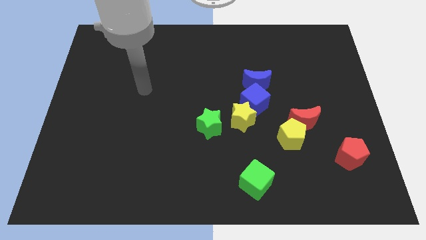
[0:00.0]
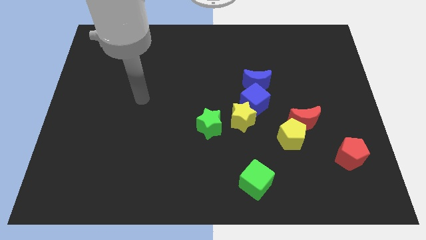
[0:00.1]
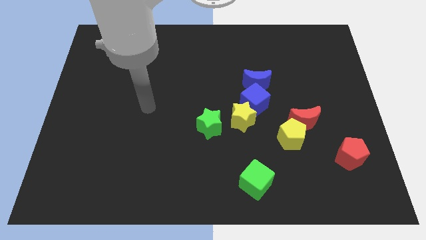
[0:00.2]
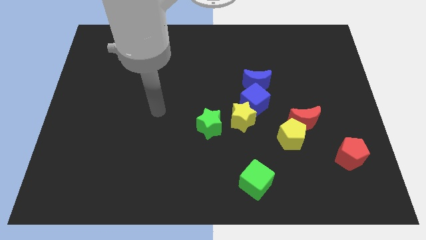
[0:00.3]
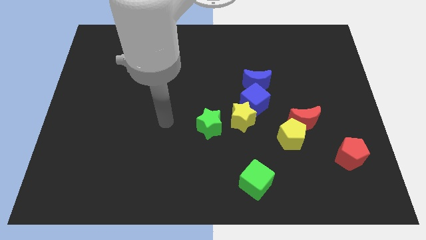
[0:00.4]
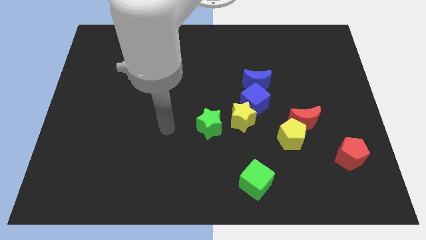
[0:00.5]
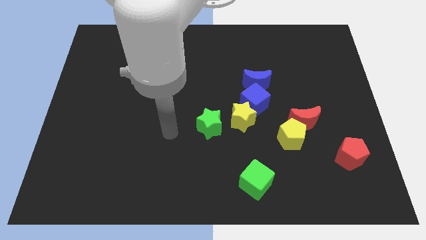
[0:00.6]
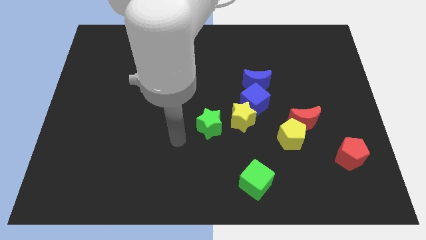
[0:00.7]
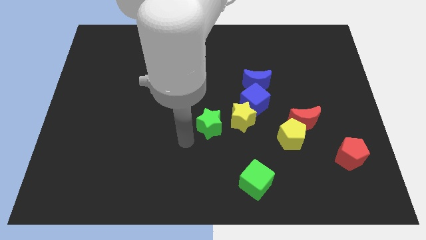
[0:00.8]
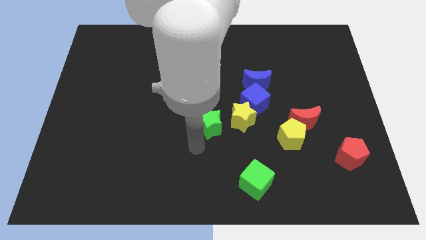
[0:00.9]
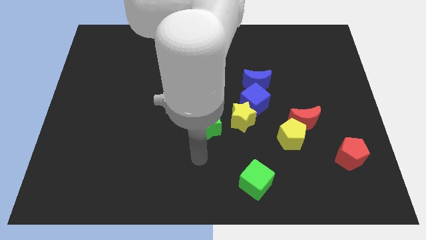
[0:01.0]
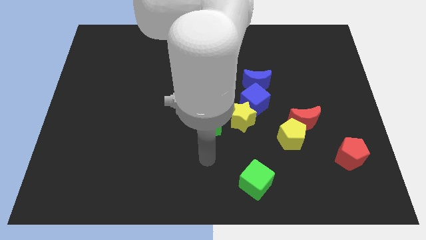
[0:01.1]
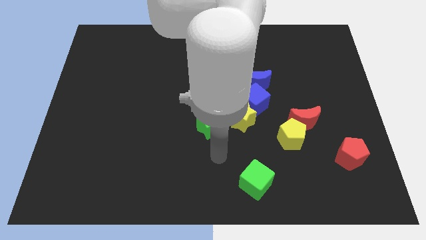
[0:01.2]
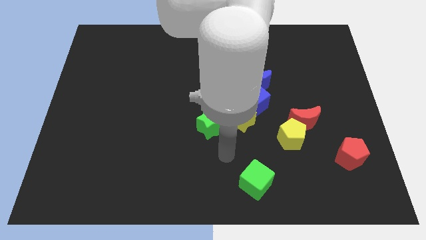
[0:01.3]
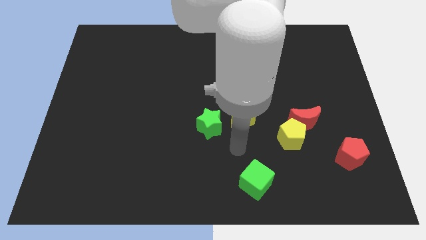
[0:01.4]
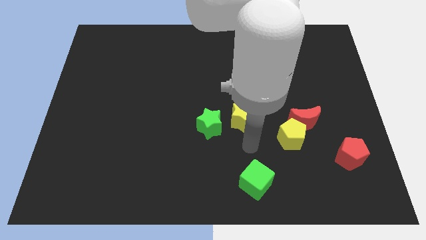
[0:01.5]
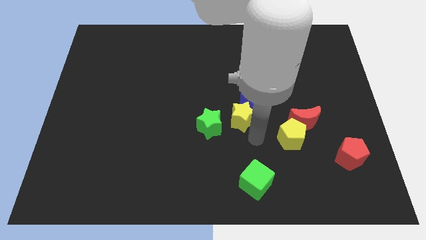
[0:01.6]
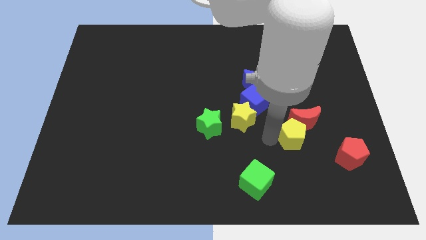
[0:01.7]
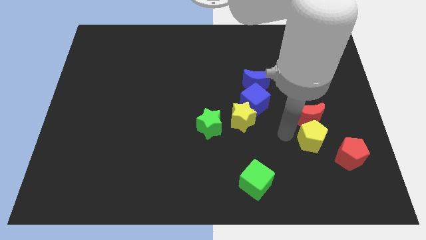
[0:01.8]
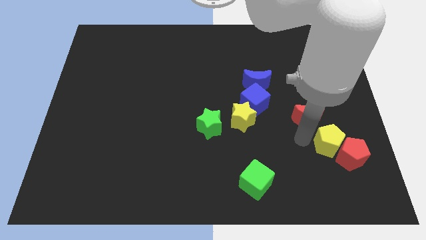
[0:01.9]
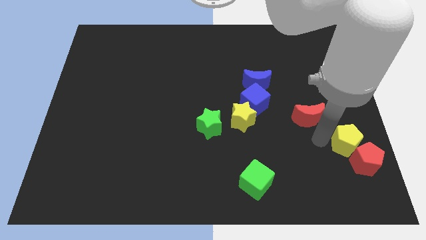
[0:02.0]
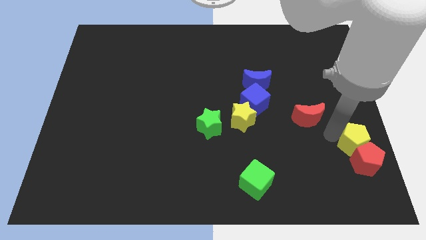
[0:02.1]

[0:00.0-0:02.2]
move the red moon away from the yellow pentagon

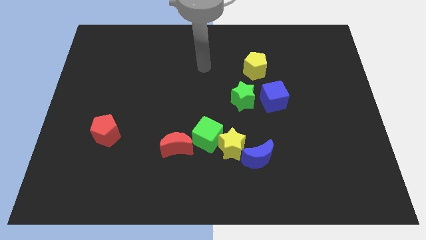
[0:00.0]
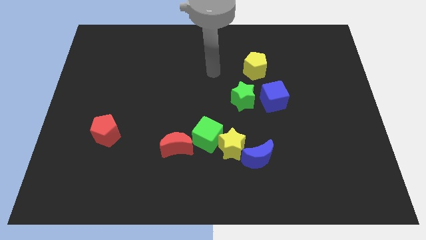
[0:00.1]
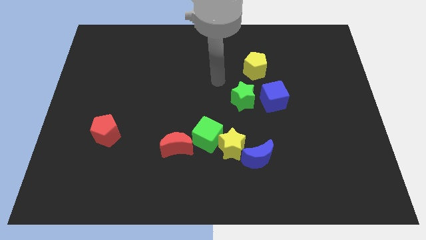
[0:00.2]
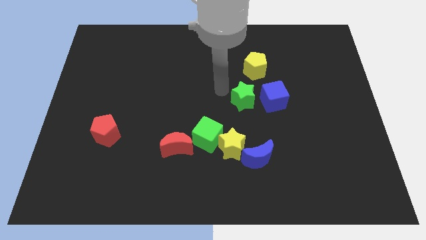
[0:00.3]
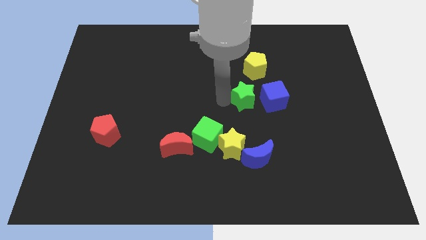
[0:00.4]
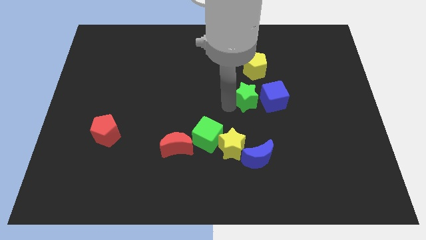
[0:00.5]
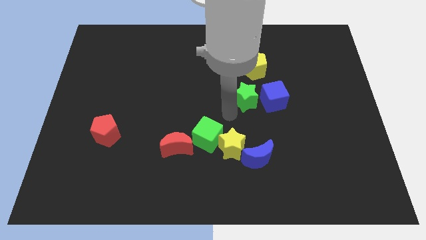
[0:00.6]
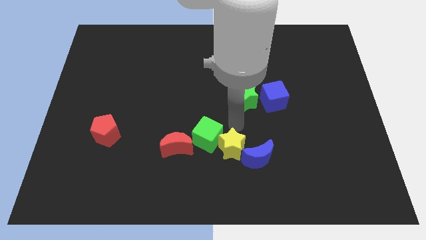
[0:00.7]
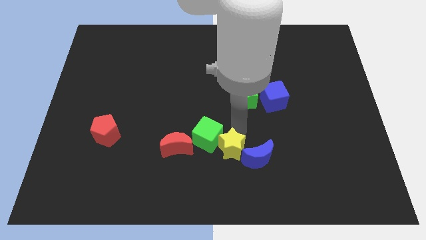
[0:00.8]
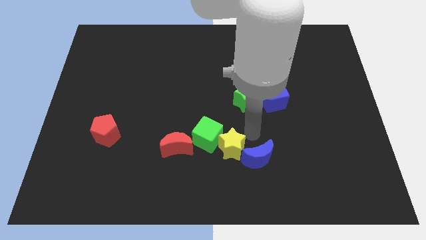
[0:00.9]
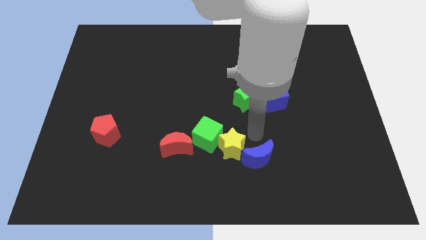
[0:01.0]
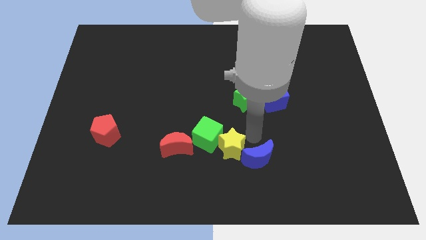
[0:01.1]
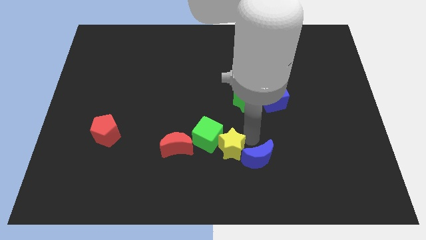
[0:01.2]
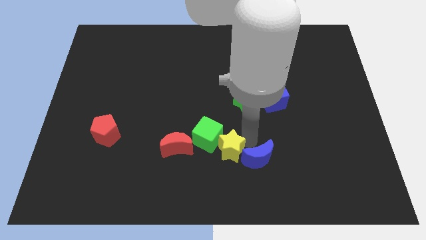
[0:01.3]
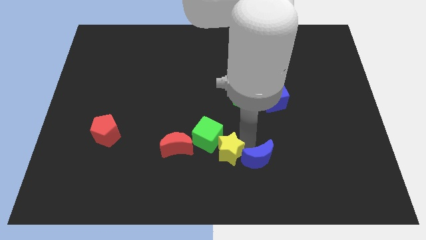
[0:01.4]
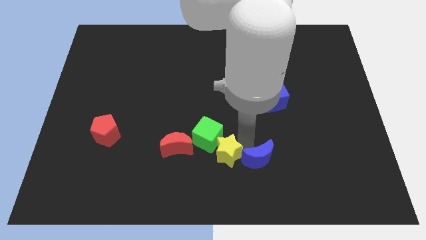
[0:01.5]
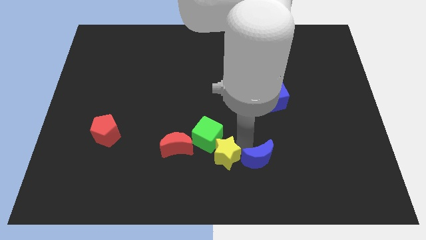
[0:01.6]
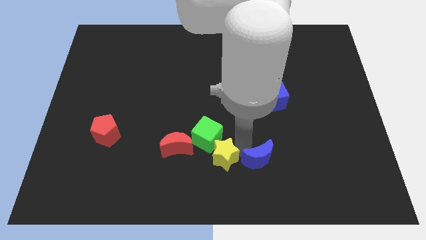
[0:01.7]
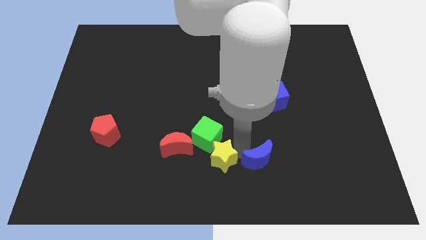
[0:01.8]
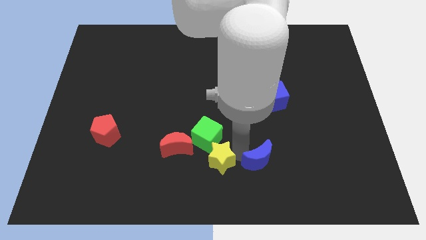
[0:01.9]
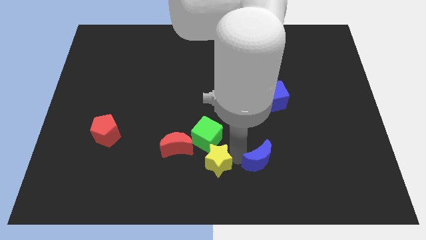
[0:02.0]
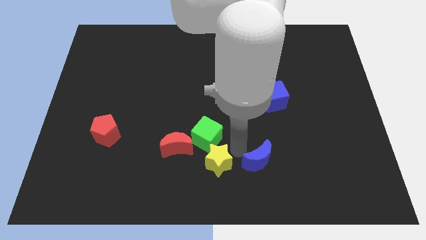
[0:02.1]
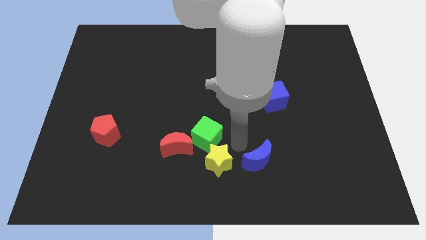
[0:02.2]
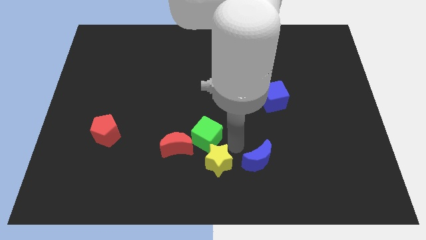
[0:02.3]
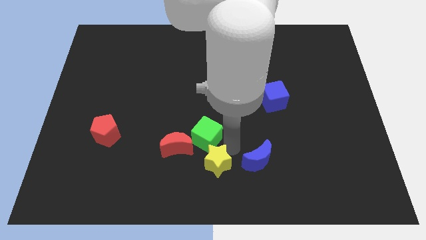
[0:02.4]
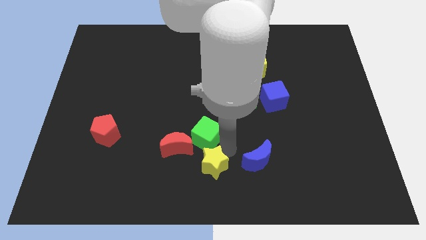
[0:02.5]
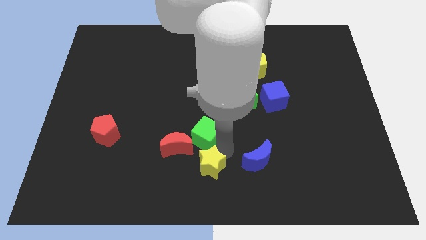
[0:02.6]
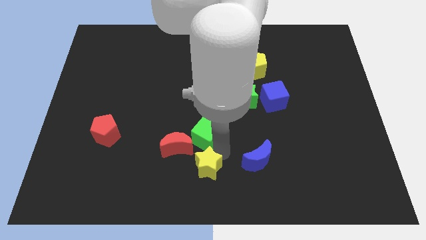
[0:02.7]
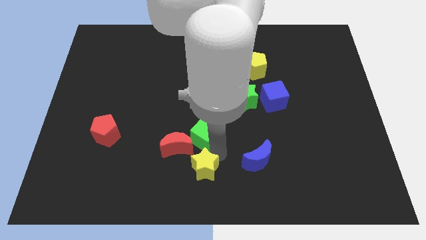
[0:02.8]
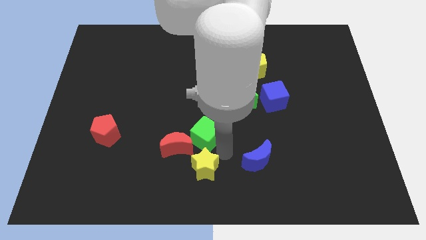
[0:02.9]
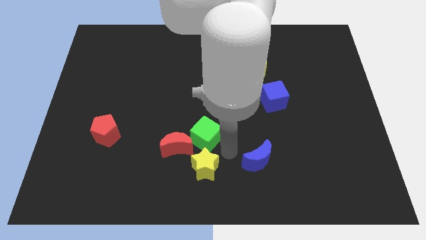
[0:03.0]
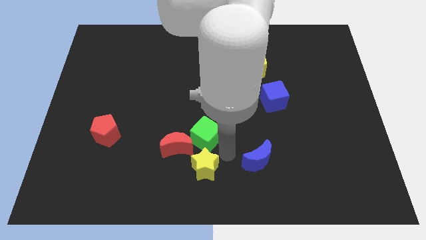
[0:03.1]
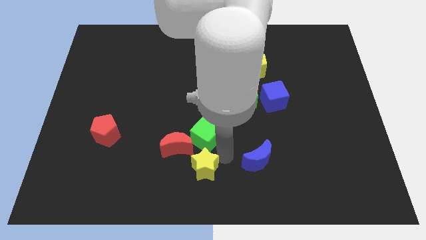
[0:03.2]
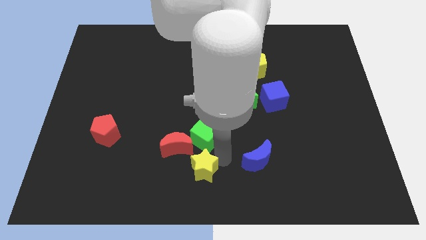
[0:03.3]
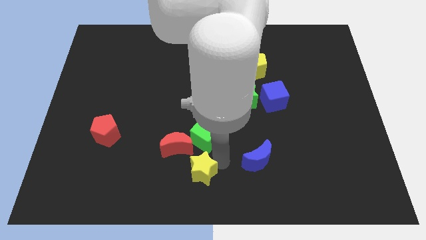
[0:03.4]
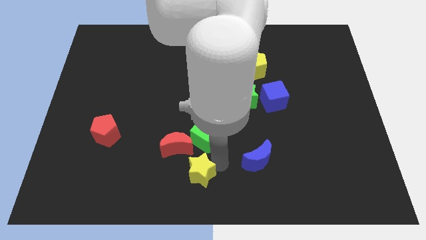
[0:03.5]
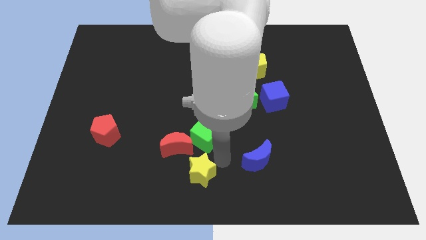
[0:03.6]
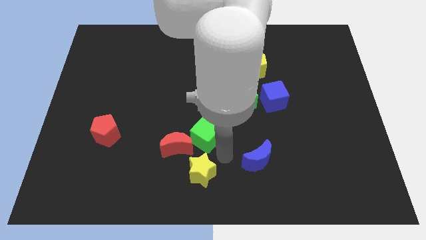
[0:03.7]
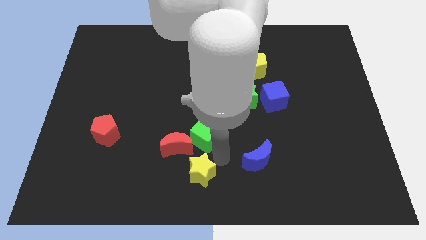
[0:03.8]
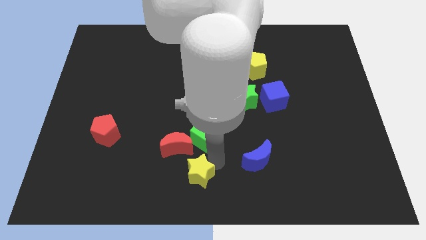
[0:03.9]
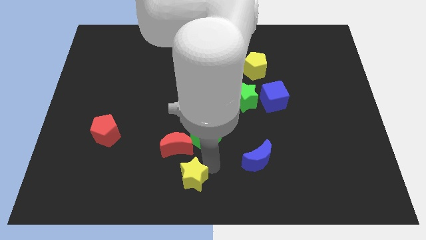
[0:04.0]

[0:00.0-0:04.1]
move the yellow star away from the green cube and blue moon

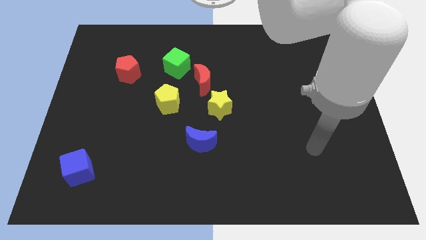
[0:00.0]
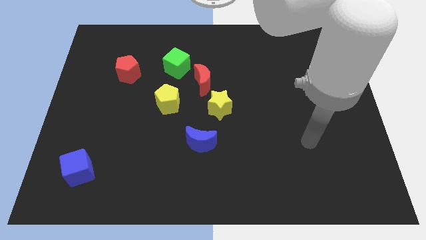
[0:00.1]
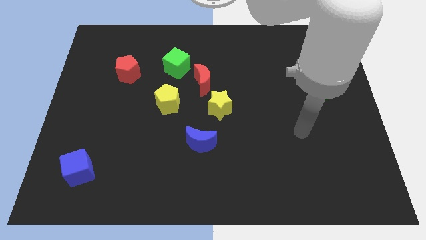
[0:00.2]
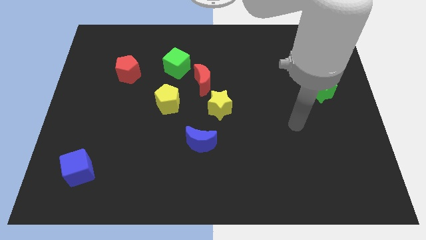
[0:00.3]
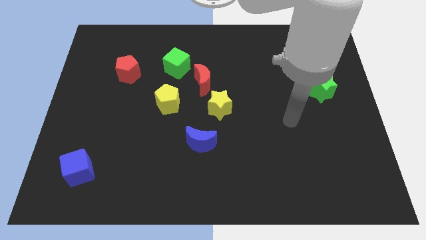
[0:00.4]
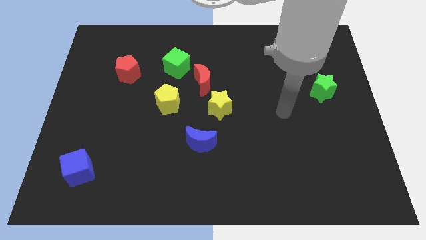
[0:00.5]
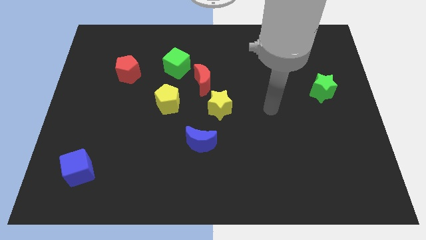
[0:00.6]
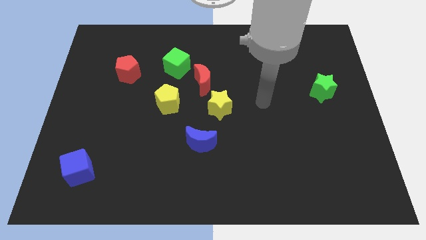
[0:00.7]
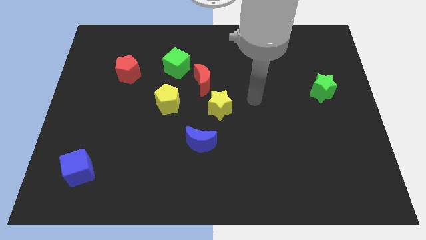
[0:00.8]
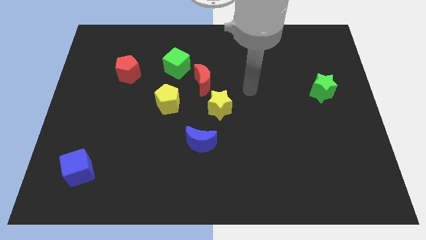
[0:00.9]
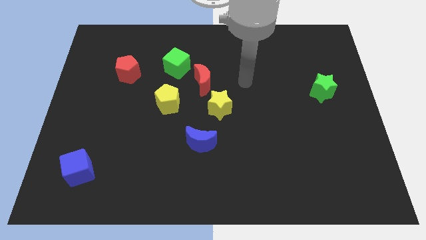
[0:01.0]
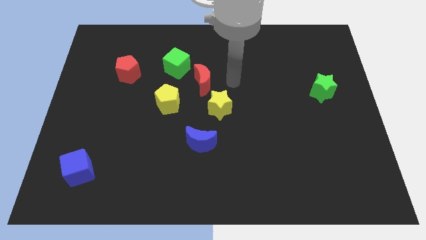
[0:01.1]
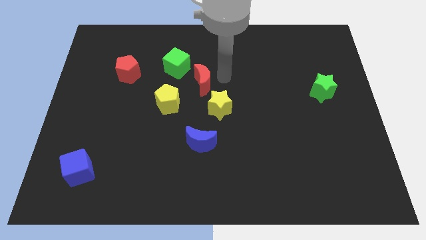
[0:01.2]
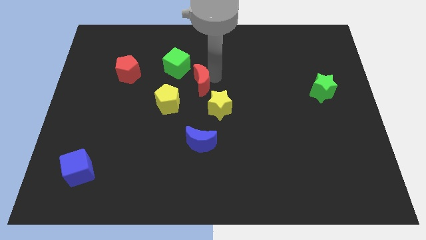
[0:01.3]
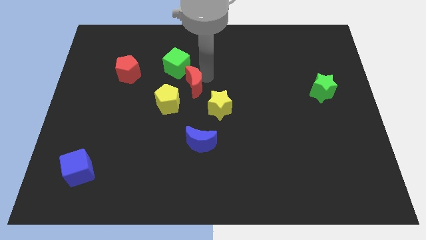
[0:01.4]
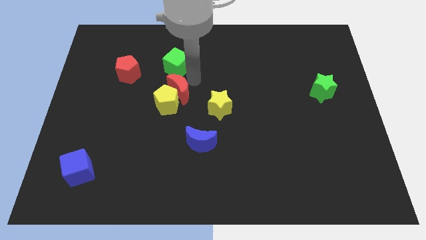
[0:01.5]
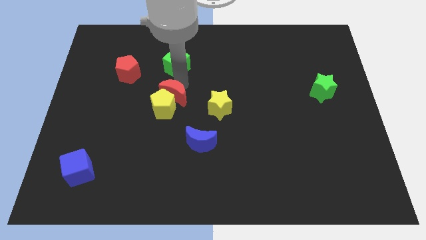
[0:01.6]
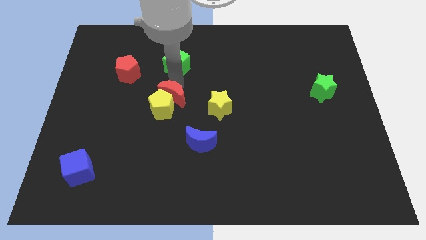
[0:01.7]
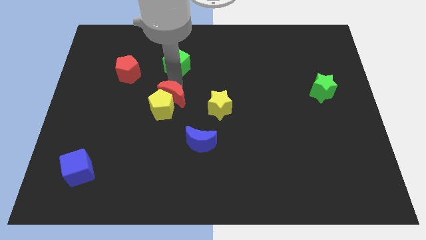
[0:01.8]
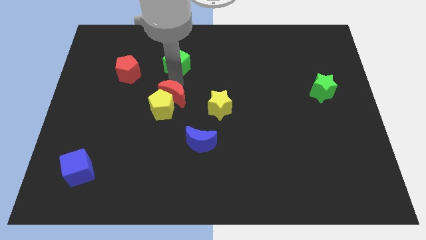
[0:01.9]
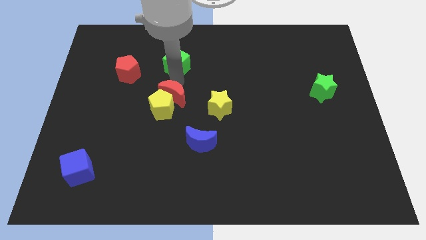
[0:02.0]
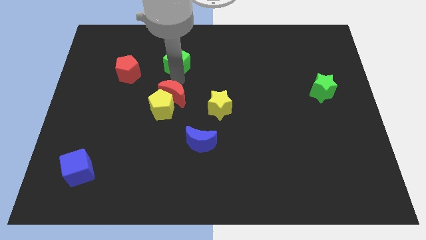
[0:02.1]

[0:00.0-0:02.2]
pull the green cube apart from the red moon

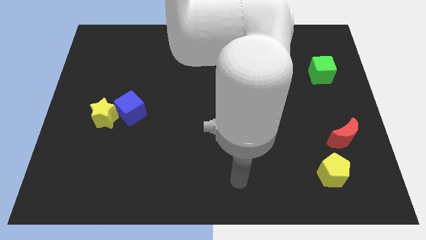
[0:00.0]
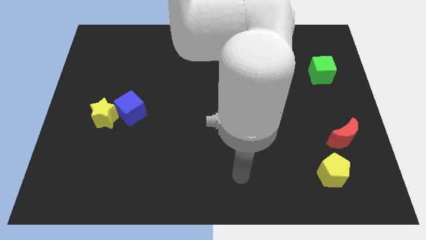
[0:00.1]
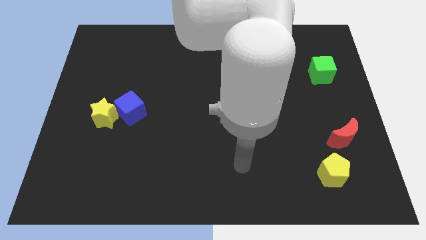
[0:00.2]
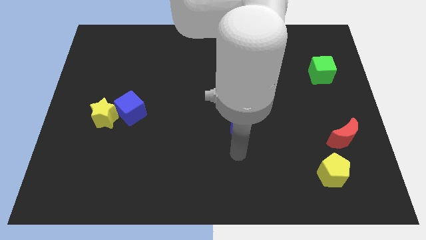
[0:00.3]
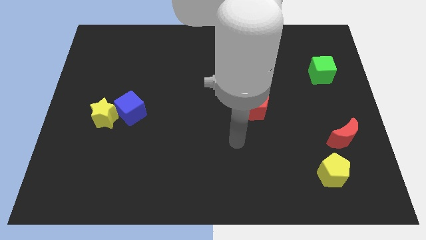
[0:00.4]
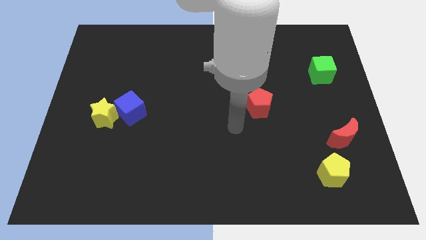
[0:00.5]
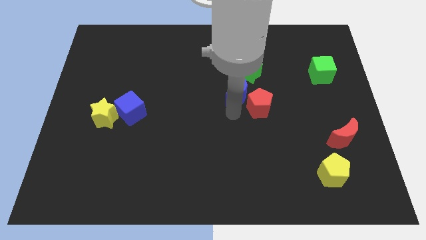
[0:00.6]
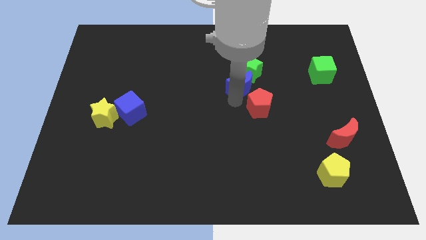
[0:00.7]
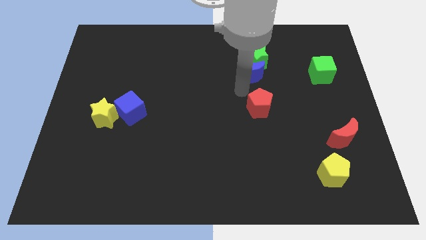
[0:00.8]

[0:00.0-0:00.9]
move the red pentagon away from the blue moon
